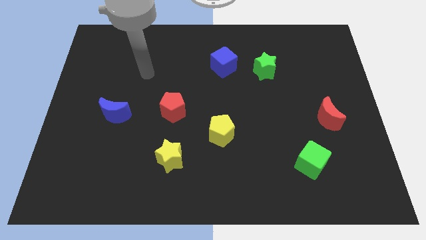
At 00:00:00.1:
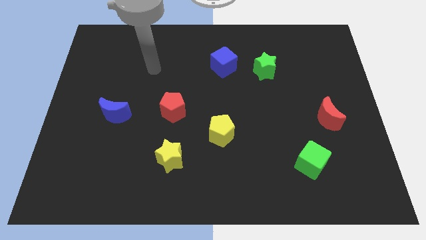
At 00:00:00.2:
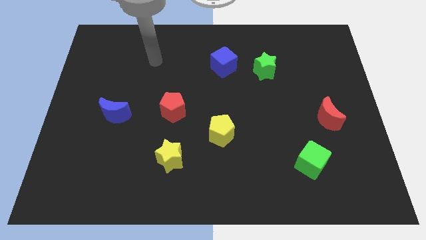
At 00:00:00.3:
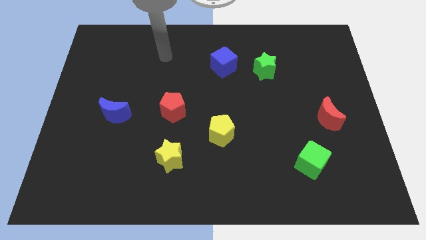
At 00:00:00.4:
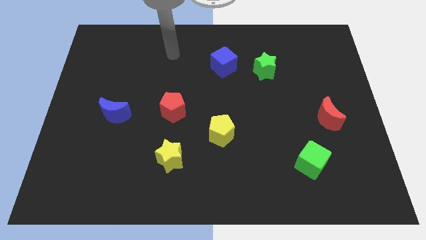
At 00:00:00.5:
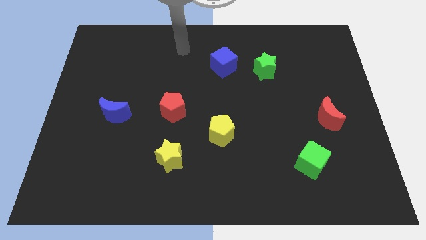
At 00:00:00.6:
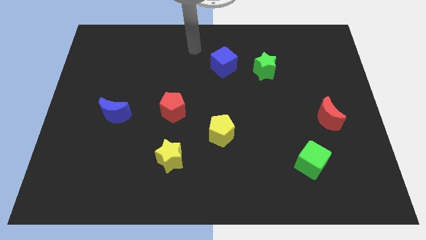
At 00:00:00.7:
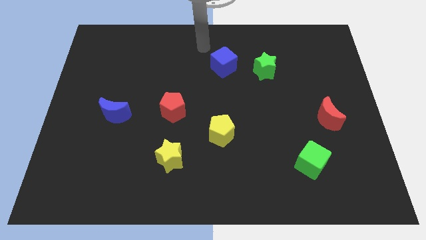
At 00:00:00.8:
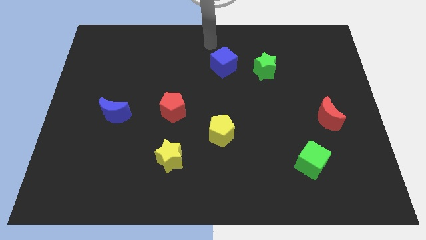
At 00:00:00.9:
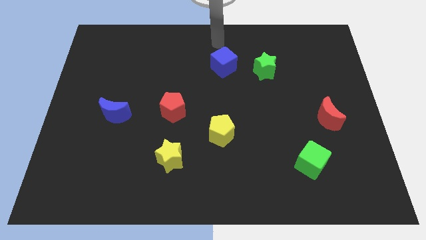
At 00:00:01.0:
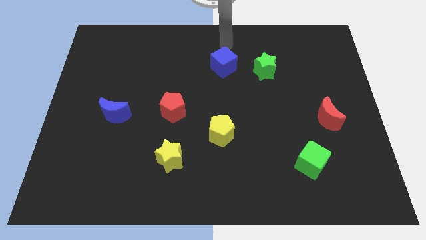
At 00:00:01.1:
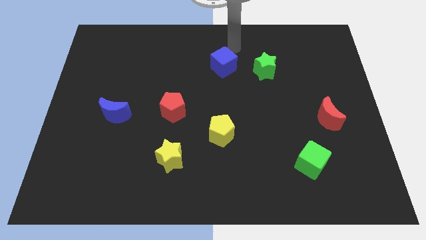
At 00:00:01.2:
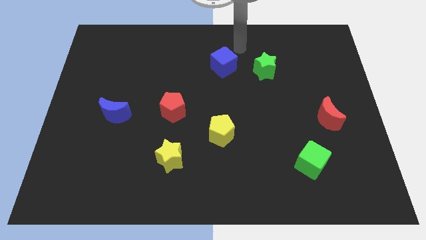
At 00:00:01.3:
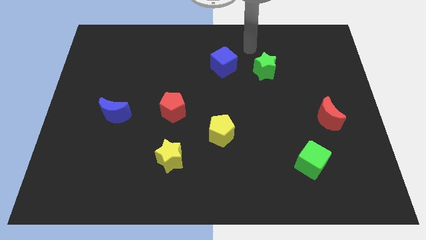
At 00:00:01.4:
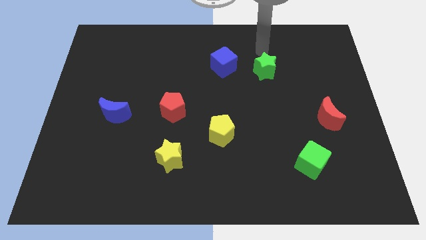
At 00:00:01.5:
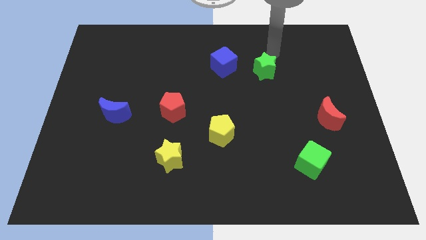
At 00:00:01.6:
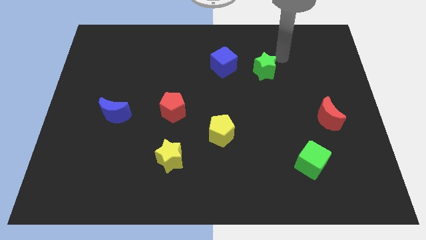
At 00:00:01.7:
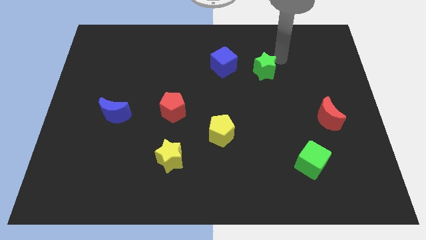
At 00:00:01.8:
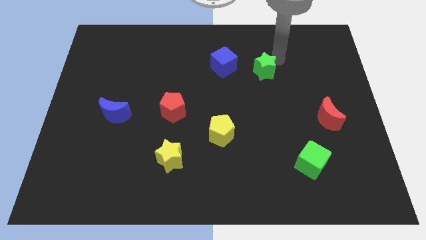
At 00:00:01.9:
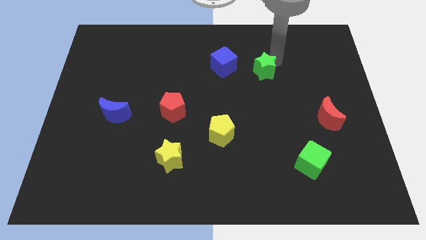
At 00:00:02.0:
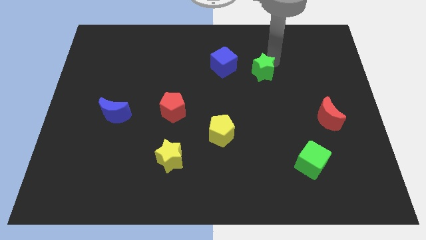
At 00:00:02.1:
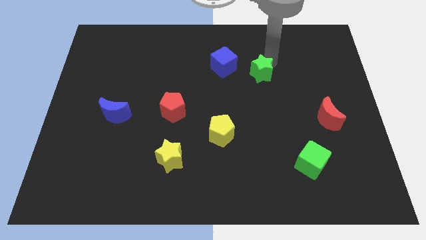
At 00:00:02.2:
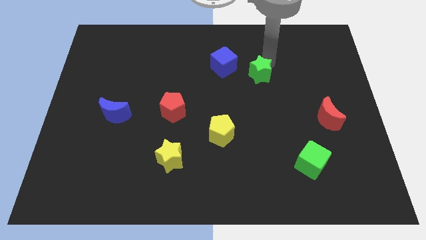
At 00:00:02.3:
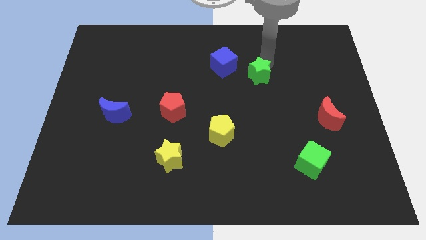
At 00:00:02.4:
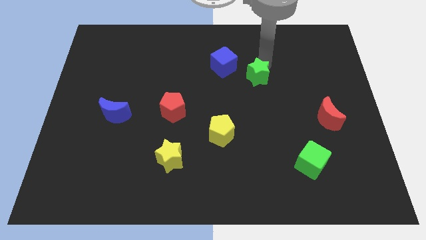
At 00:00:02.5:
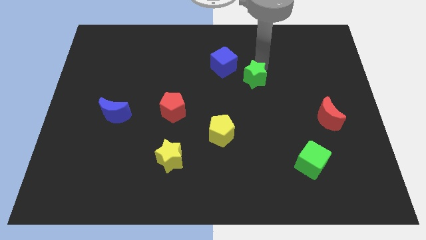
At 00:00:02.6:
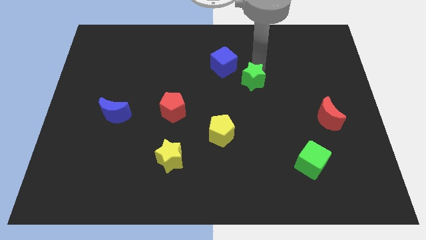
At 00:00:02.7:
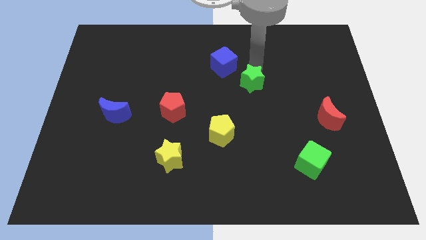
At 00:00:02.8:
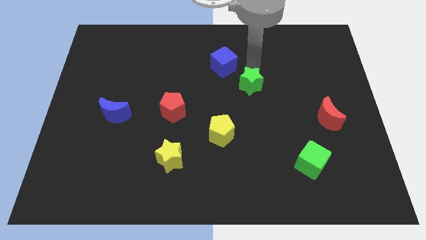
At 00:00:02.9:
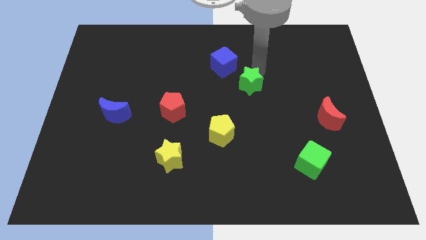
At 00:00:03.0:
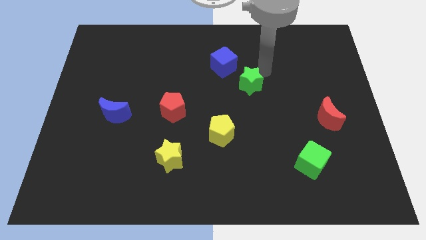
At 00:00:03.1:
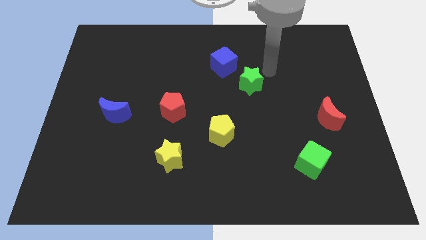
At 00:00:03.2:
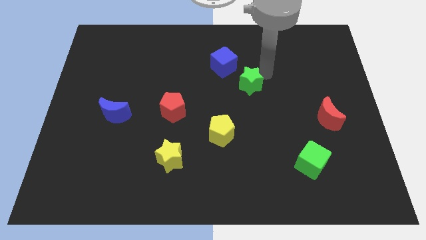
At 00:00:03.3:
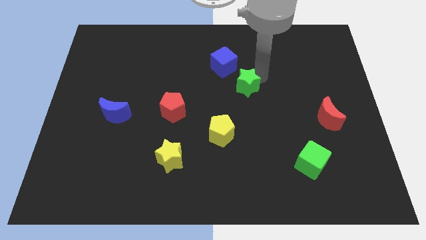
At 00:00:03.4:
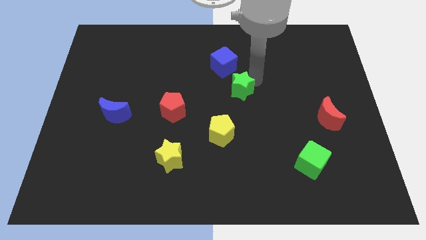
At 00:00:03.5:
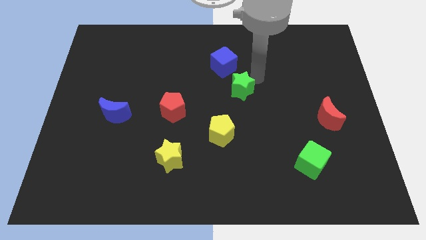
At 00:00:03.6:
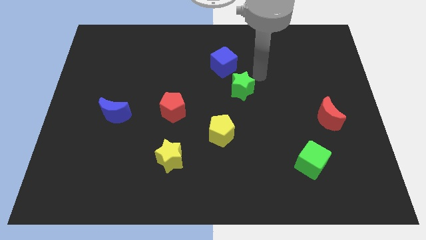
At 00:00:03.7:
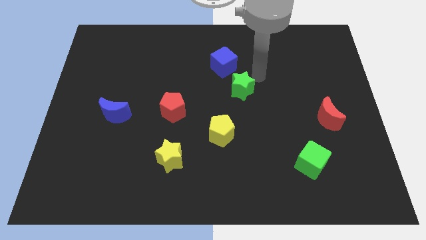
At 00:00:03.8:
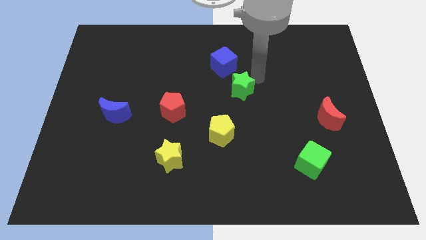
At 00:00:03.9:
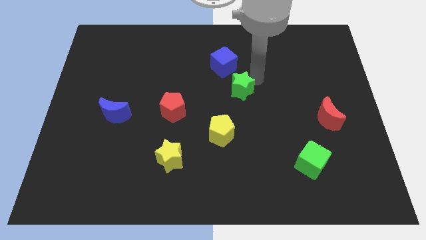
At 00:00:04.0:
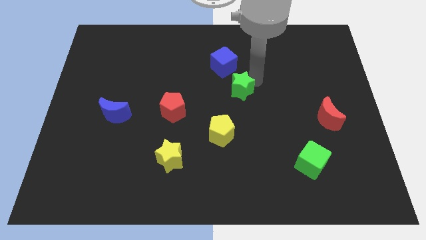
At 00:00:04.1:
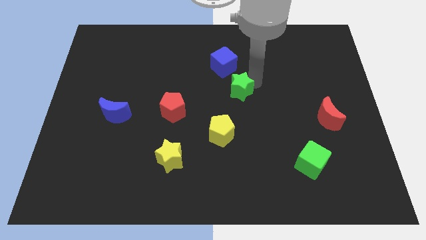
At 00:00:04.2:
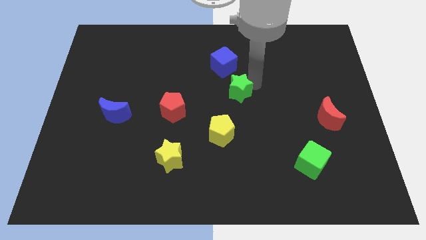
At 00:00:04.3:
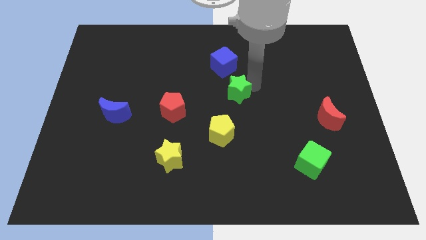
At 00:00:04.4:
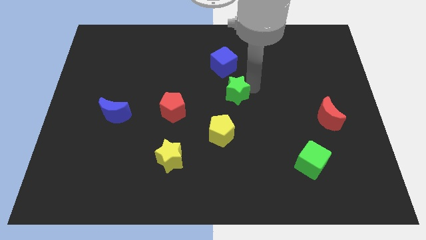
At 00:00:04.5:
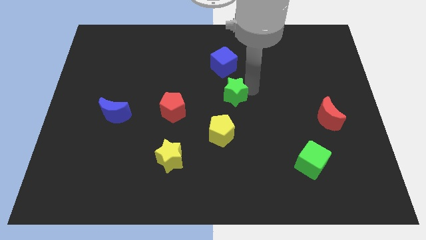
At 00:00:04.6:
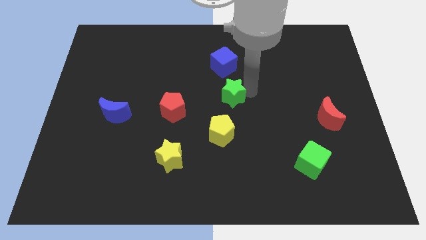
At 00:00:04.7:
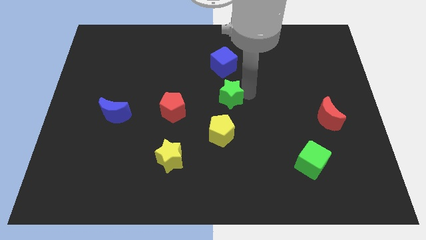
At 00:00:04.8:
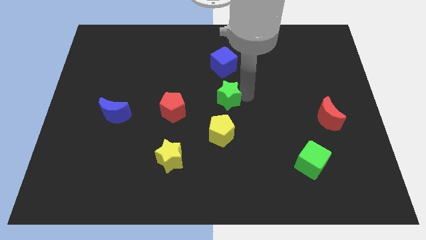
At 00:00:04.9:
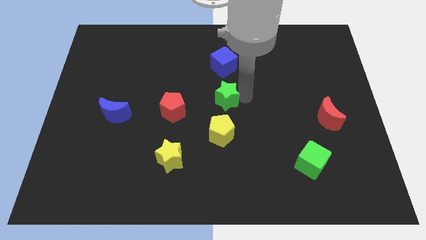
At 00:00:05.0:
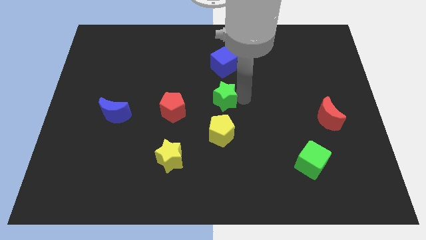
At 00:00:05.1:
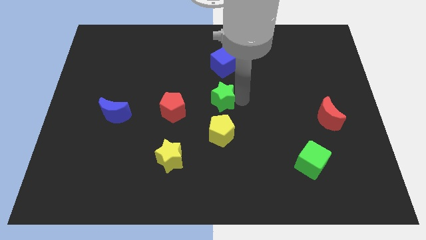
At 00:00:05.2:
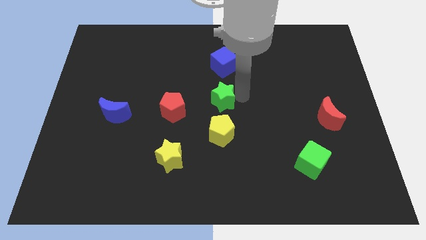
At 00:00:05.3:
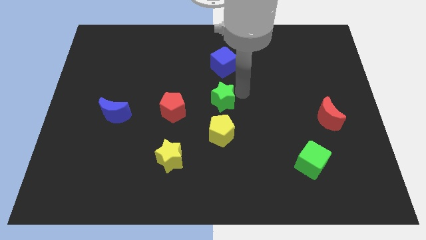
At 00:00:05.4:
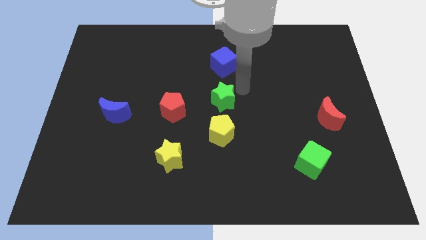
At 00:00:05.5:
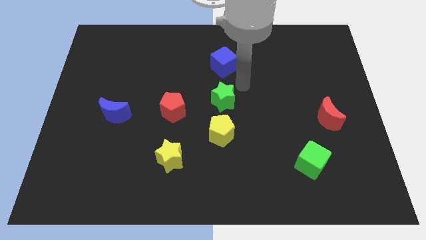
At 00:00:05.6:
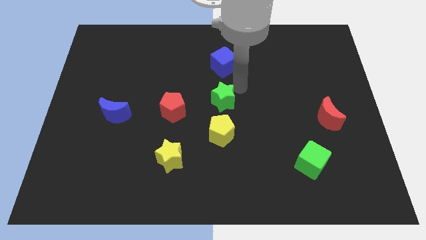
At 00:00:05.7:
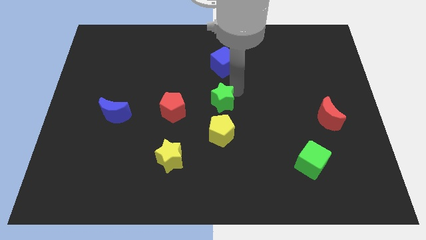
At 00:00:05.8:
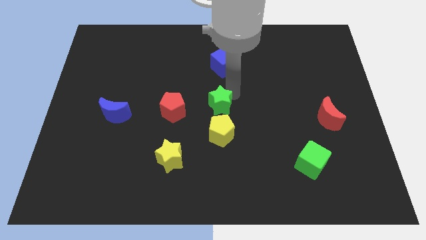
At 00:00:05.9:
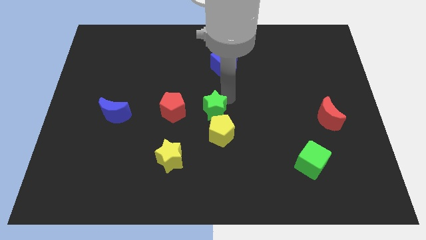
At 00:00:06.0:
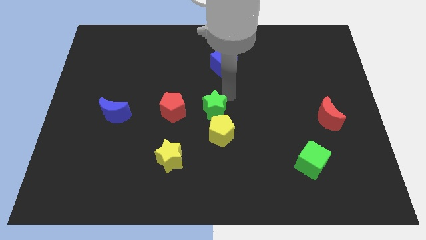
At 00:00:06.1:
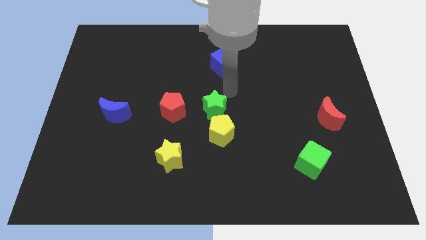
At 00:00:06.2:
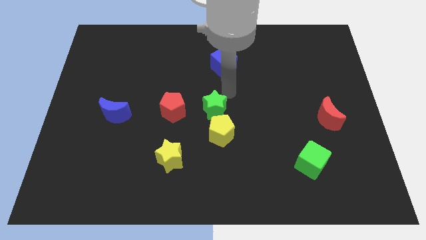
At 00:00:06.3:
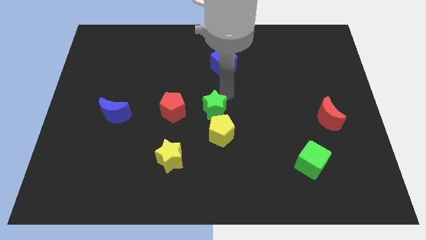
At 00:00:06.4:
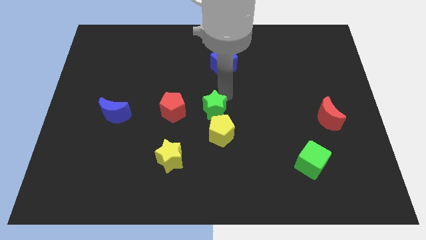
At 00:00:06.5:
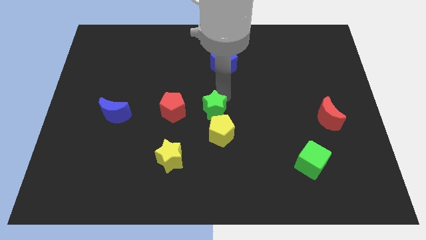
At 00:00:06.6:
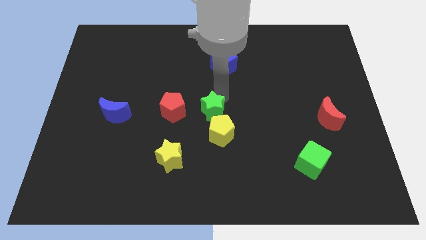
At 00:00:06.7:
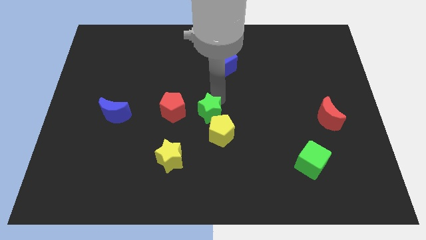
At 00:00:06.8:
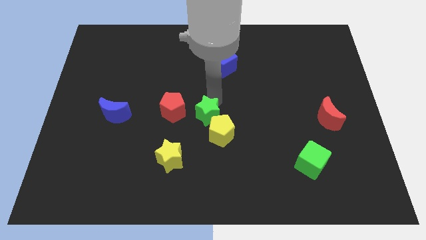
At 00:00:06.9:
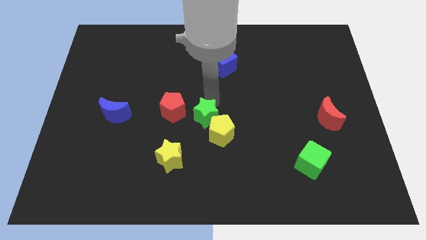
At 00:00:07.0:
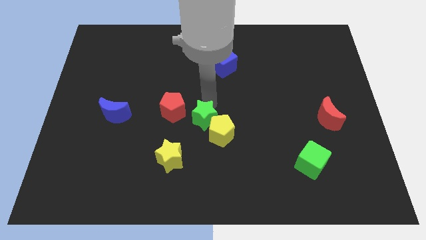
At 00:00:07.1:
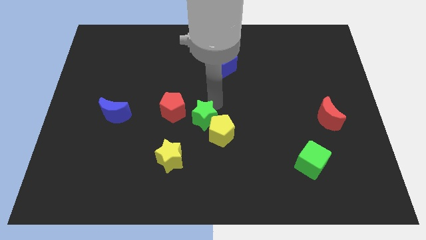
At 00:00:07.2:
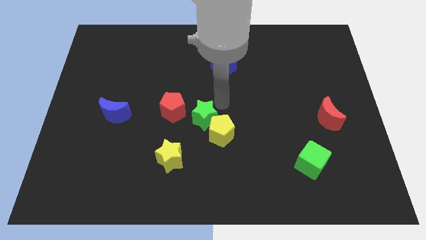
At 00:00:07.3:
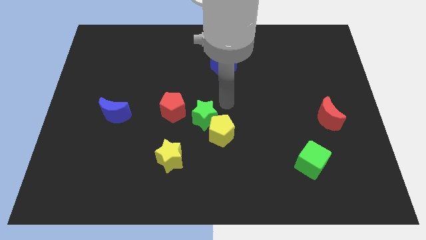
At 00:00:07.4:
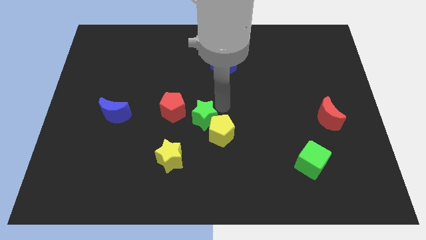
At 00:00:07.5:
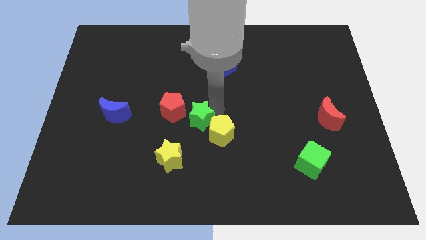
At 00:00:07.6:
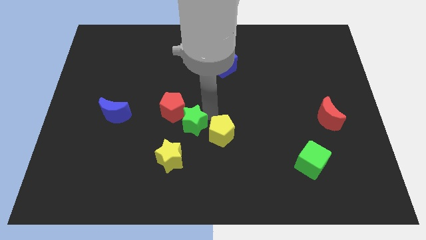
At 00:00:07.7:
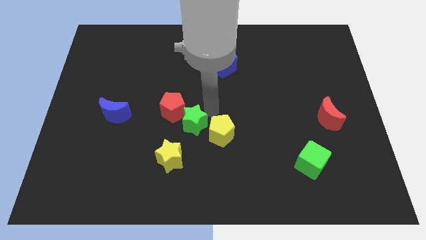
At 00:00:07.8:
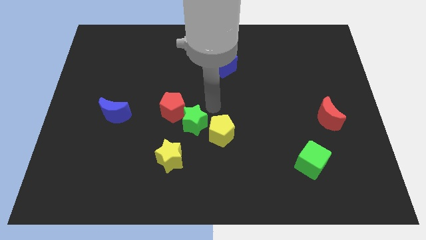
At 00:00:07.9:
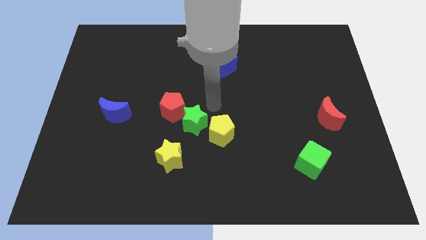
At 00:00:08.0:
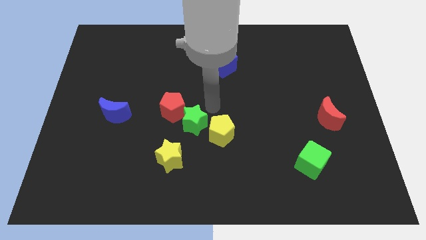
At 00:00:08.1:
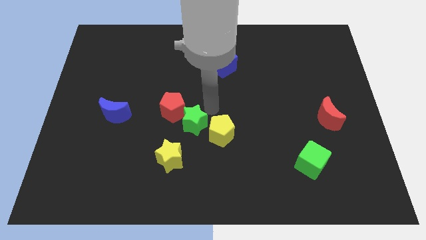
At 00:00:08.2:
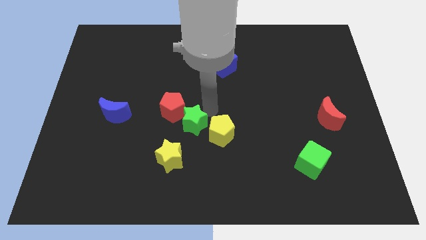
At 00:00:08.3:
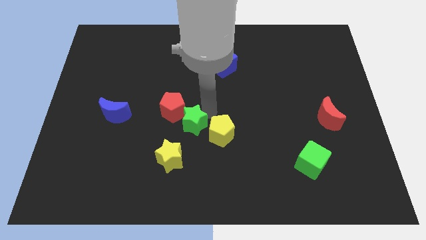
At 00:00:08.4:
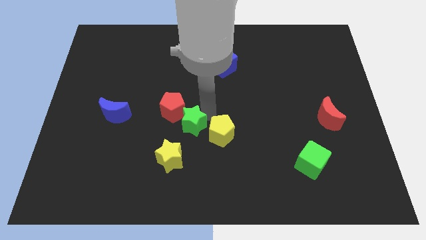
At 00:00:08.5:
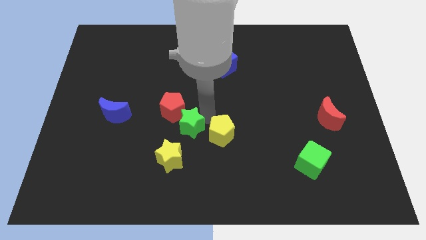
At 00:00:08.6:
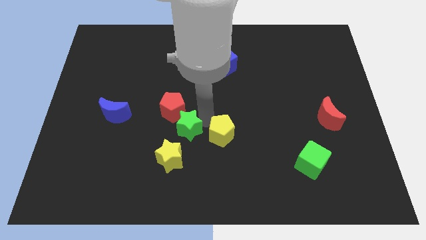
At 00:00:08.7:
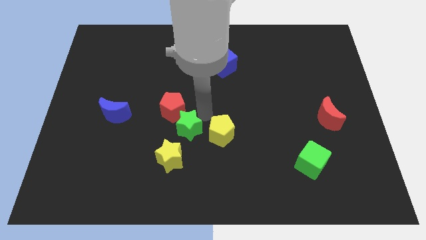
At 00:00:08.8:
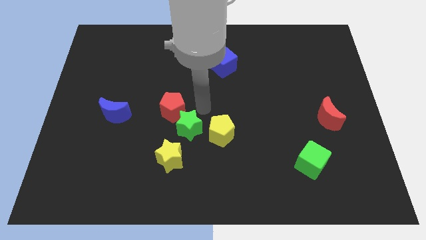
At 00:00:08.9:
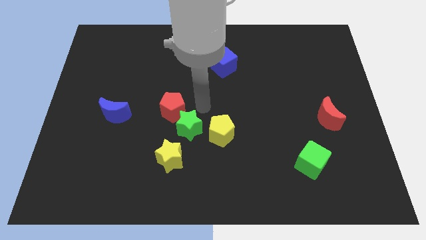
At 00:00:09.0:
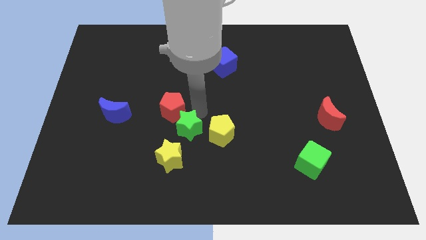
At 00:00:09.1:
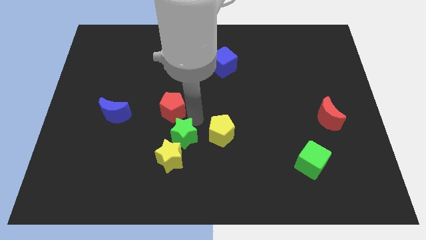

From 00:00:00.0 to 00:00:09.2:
slide the green star next to the yellow star
